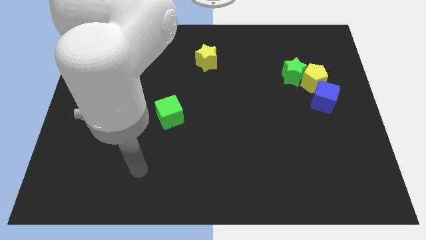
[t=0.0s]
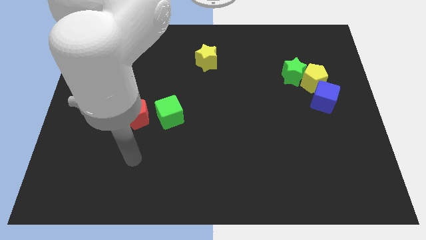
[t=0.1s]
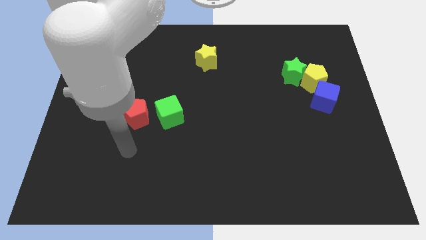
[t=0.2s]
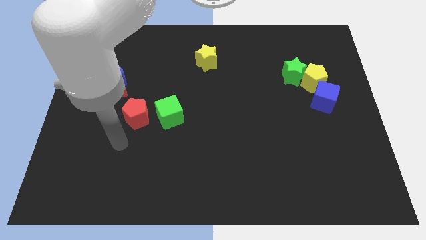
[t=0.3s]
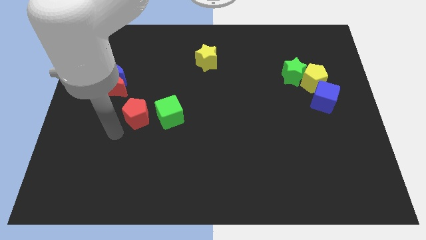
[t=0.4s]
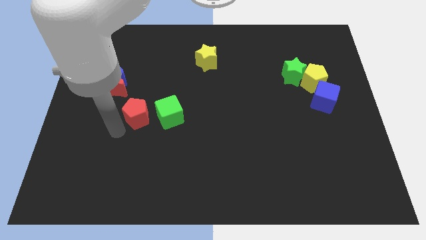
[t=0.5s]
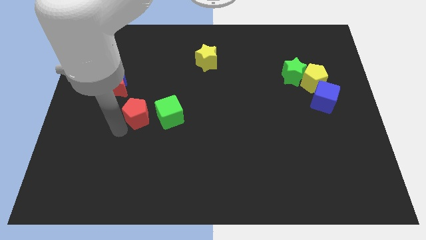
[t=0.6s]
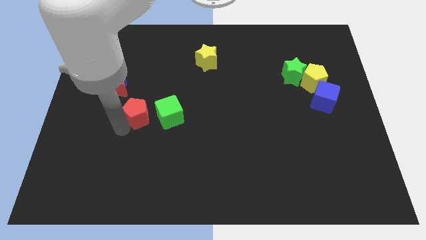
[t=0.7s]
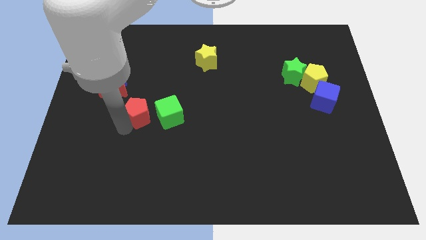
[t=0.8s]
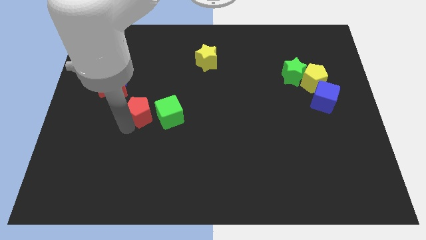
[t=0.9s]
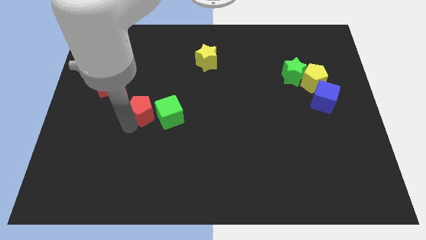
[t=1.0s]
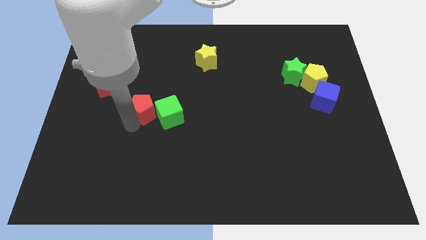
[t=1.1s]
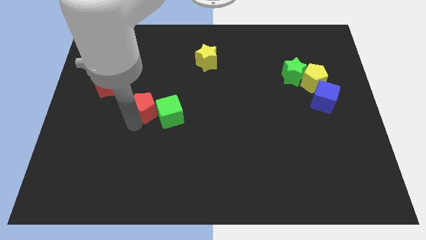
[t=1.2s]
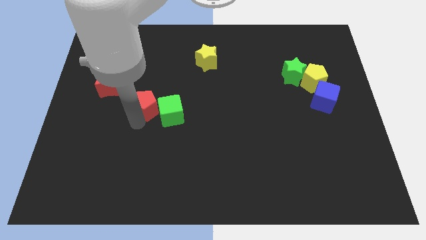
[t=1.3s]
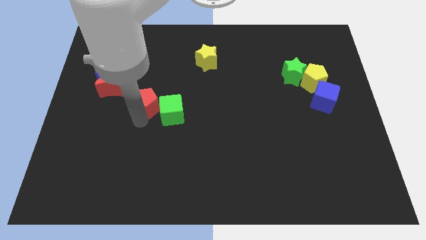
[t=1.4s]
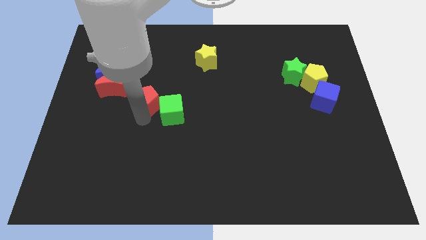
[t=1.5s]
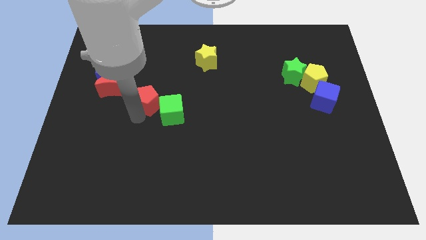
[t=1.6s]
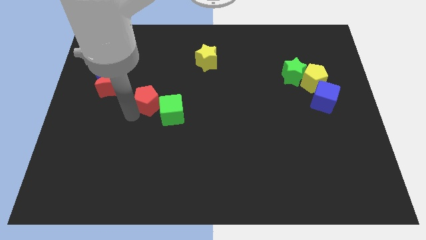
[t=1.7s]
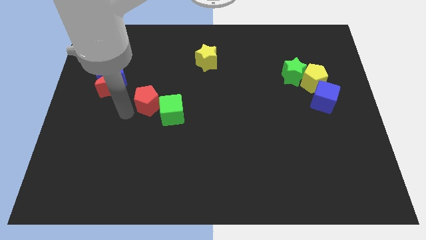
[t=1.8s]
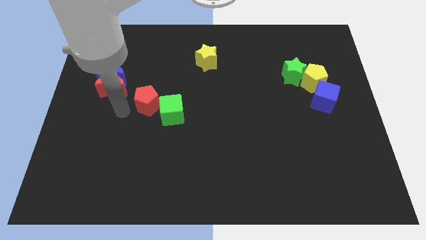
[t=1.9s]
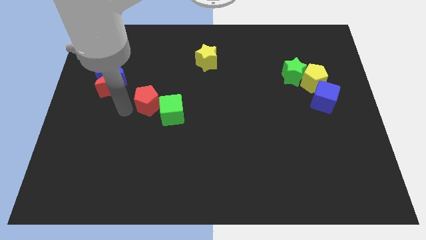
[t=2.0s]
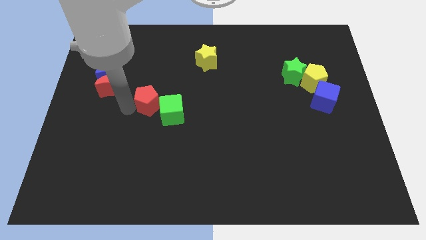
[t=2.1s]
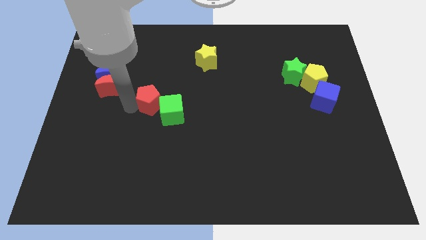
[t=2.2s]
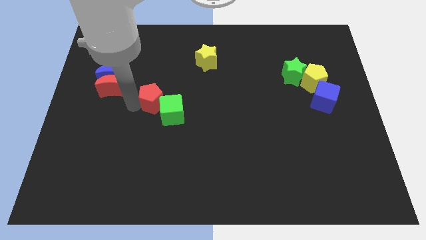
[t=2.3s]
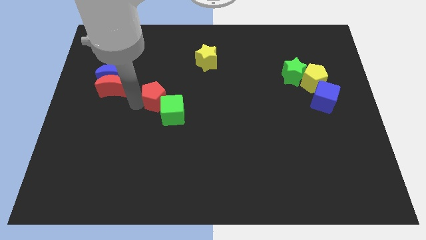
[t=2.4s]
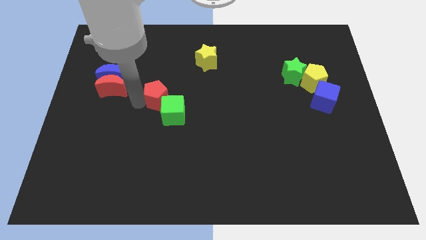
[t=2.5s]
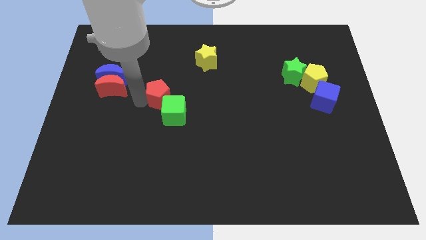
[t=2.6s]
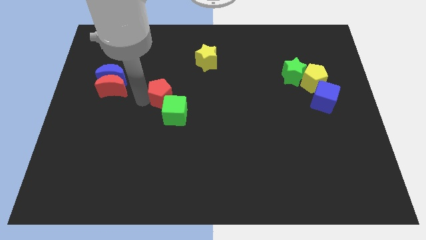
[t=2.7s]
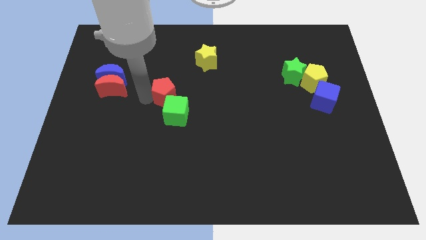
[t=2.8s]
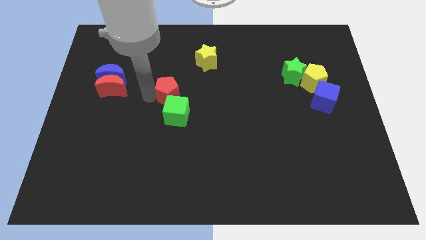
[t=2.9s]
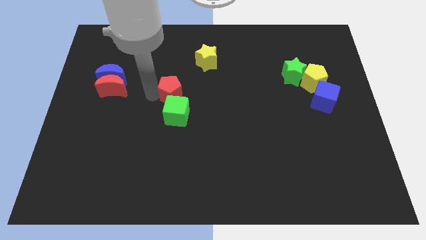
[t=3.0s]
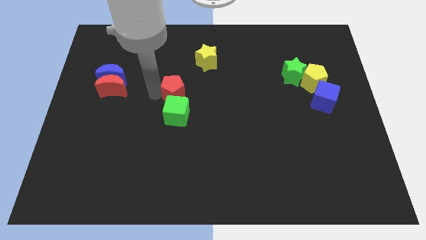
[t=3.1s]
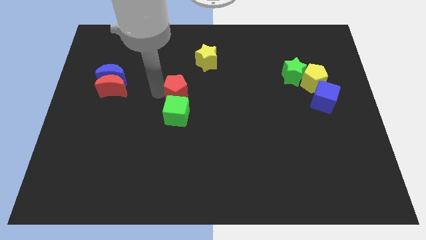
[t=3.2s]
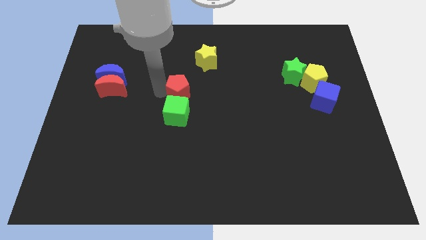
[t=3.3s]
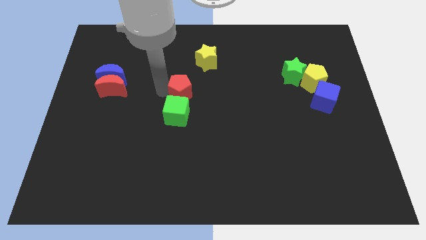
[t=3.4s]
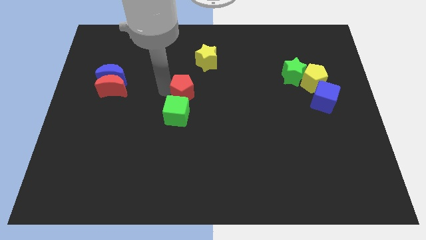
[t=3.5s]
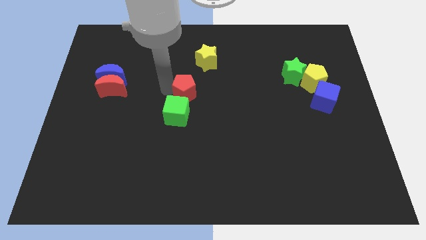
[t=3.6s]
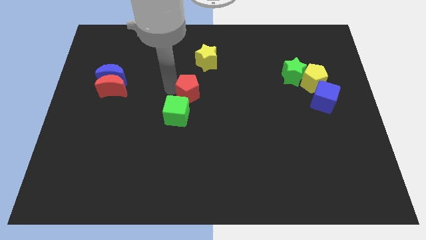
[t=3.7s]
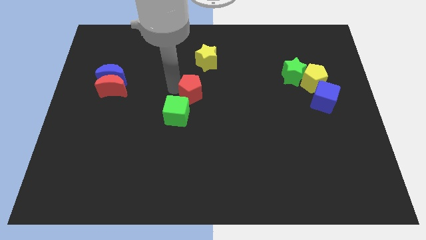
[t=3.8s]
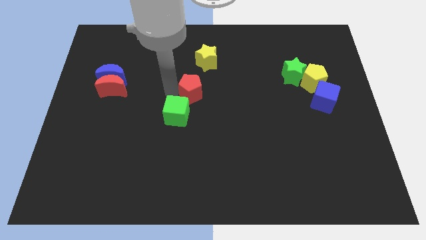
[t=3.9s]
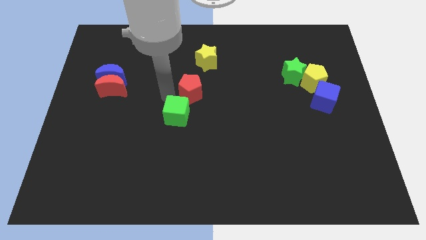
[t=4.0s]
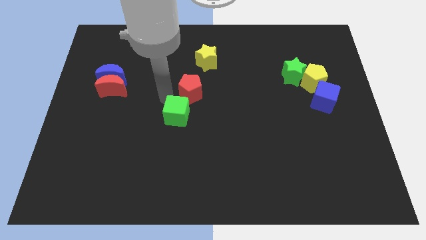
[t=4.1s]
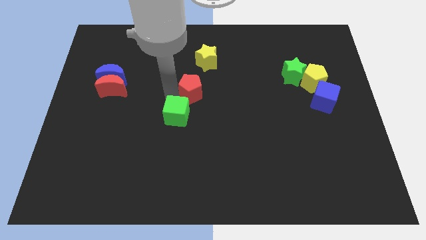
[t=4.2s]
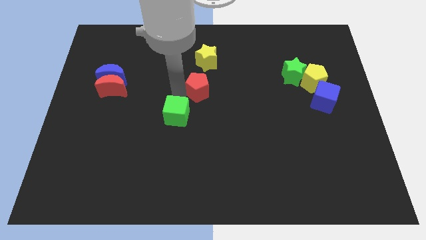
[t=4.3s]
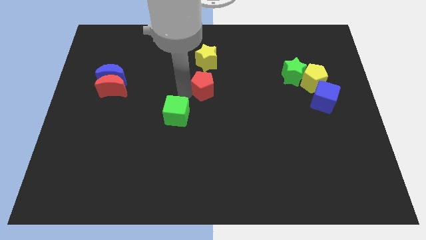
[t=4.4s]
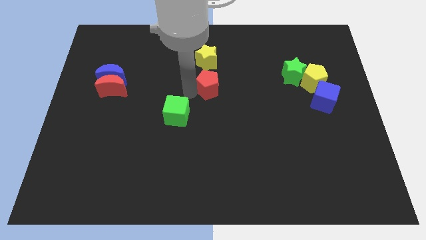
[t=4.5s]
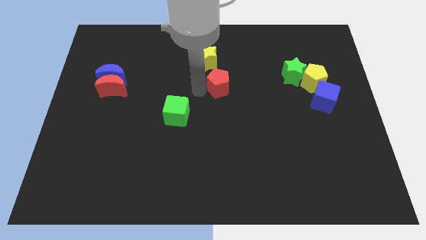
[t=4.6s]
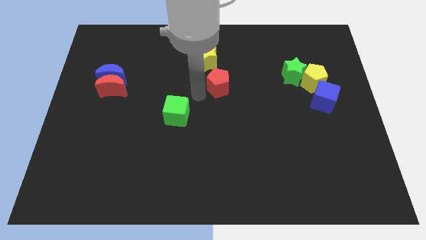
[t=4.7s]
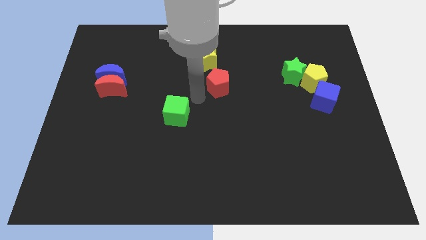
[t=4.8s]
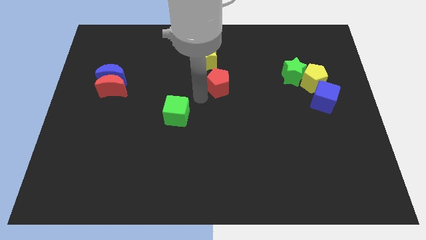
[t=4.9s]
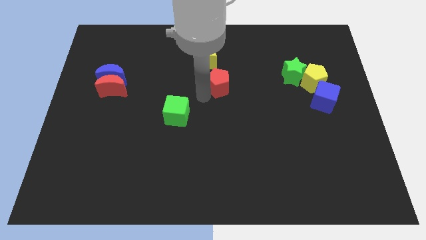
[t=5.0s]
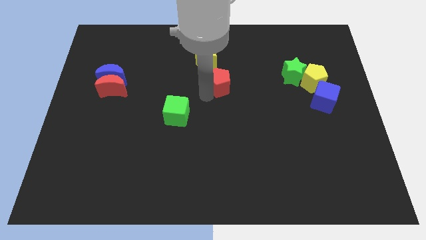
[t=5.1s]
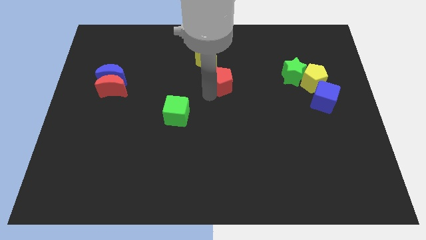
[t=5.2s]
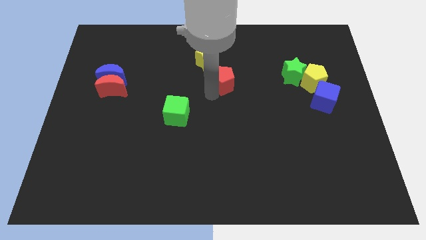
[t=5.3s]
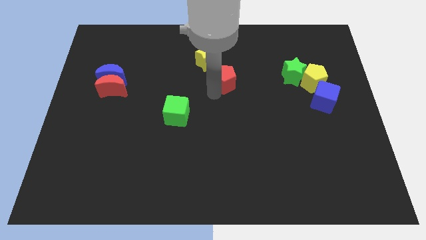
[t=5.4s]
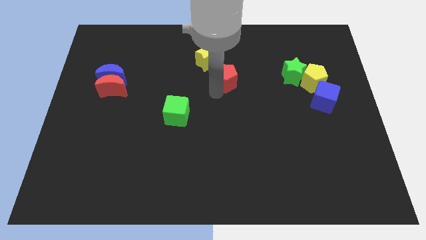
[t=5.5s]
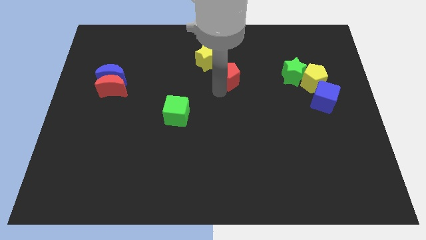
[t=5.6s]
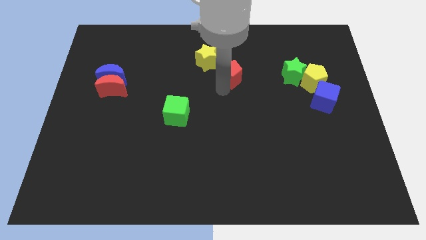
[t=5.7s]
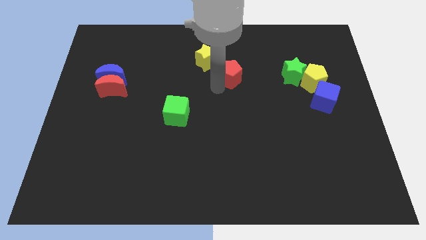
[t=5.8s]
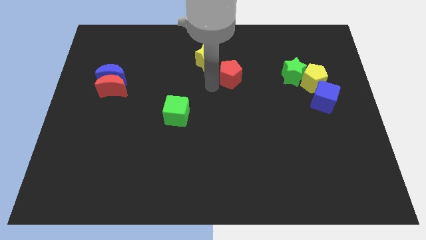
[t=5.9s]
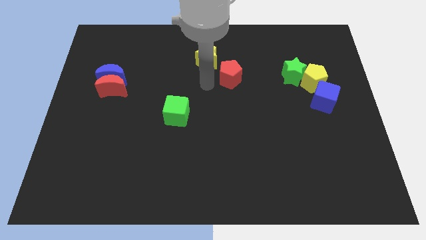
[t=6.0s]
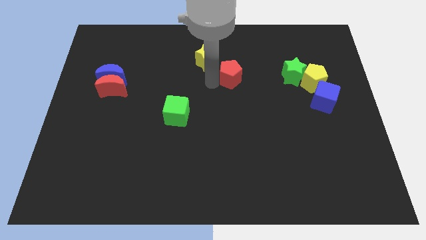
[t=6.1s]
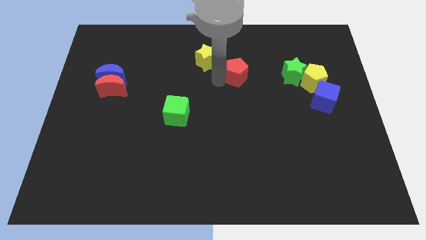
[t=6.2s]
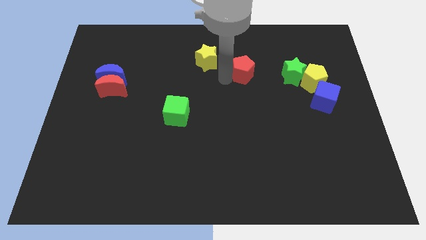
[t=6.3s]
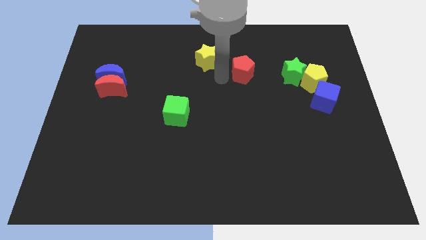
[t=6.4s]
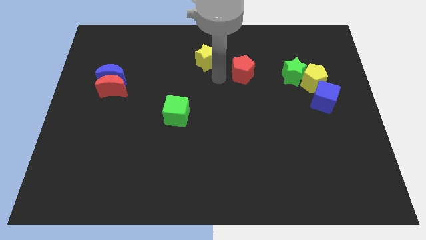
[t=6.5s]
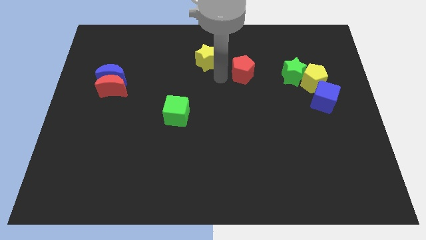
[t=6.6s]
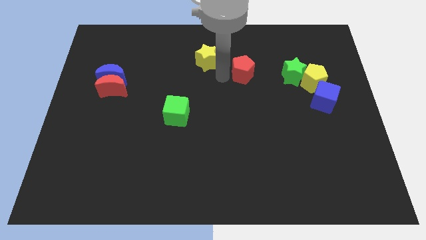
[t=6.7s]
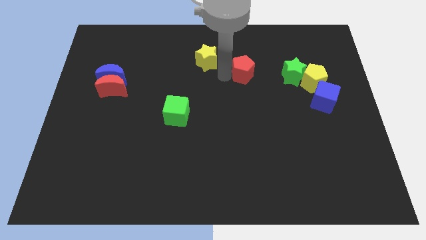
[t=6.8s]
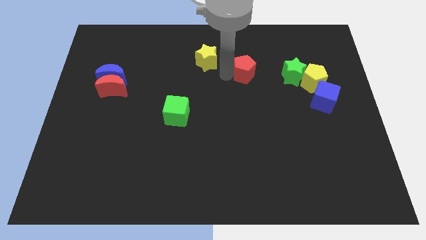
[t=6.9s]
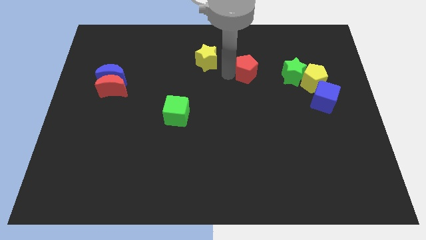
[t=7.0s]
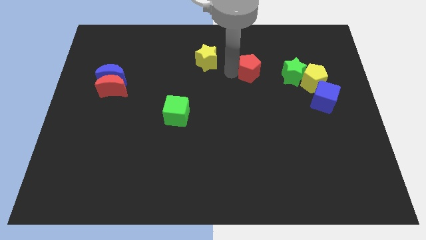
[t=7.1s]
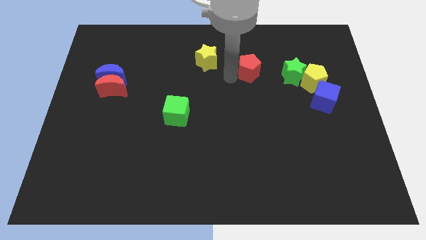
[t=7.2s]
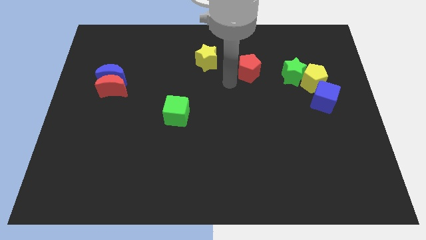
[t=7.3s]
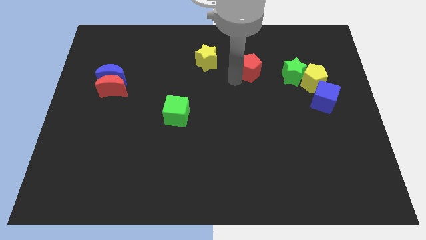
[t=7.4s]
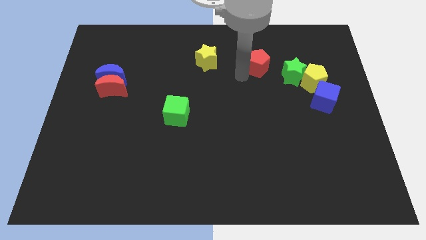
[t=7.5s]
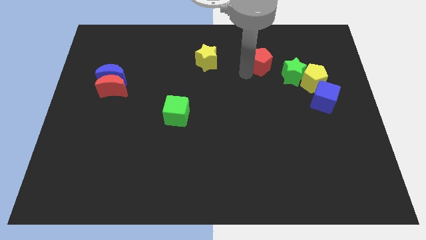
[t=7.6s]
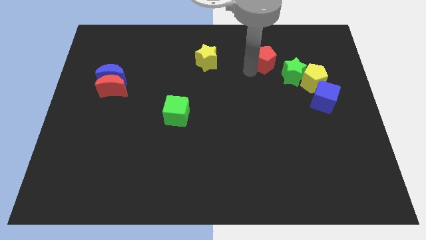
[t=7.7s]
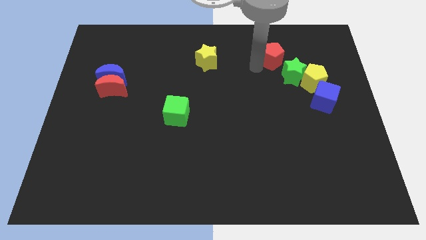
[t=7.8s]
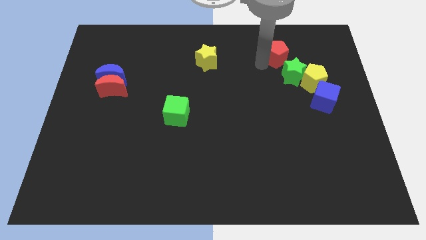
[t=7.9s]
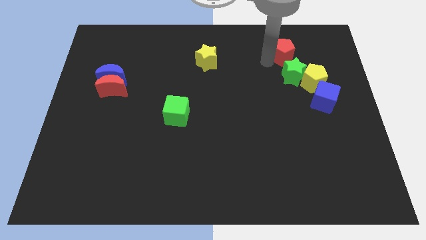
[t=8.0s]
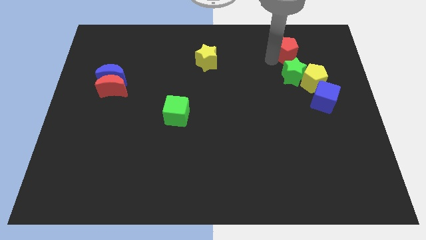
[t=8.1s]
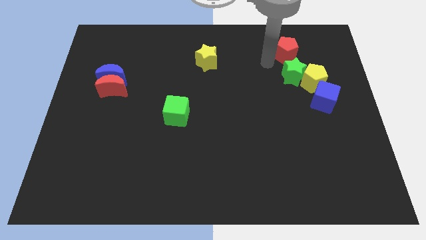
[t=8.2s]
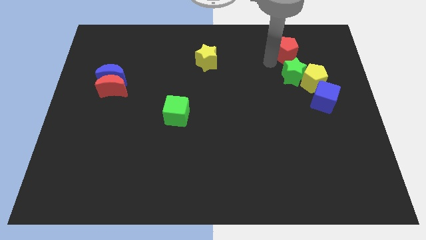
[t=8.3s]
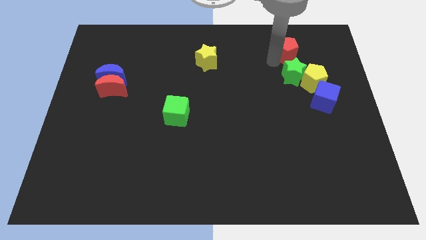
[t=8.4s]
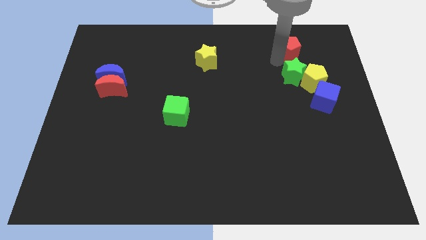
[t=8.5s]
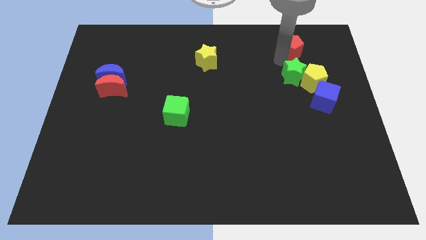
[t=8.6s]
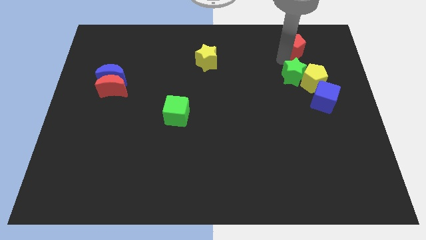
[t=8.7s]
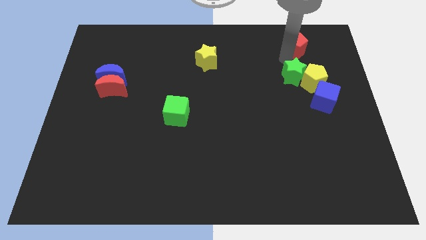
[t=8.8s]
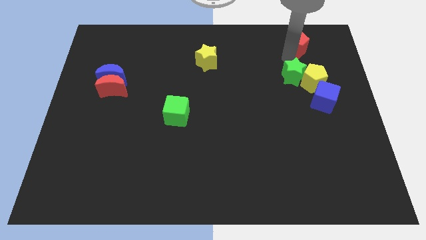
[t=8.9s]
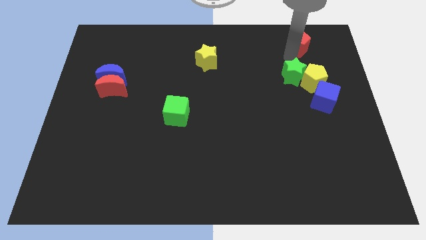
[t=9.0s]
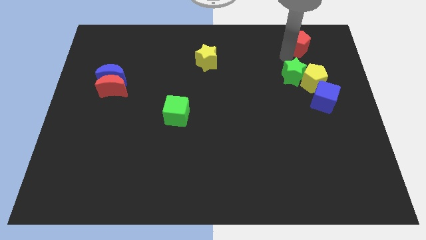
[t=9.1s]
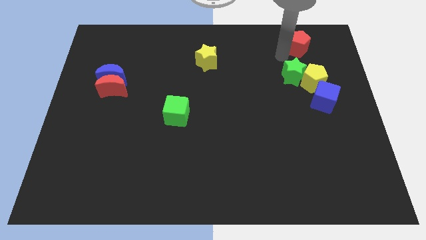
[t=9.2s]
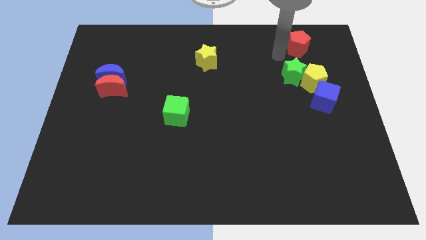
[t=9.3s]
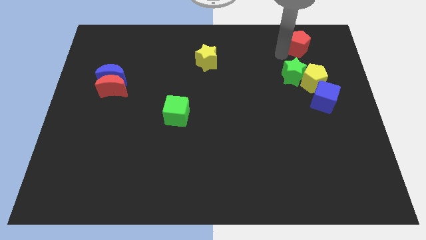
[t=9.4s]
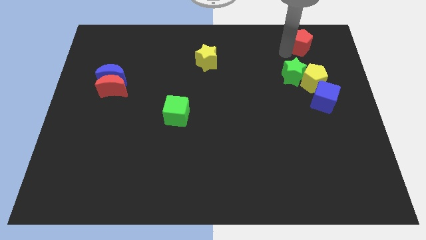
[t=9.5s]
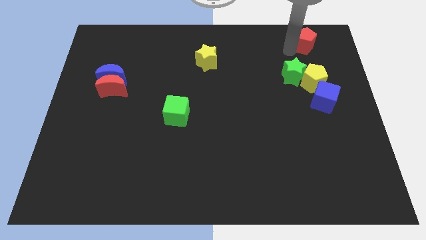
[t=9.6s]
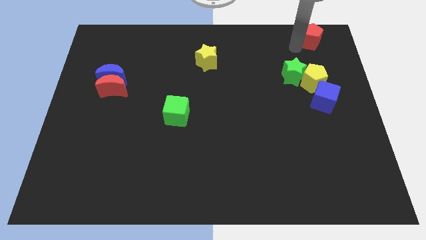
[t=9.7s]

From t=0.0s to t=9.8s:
slide the red pentagon to the top right corner
